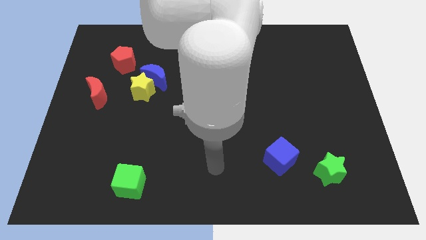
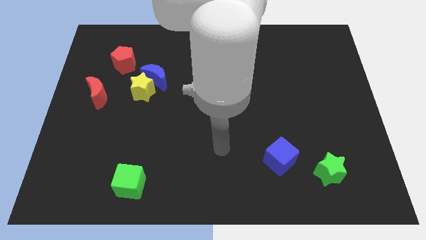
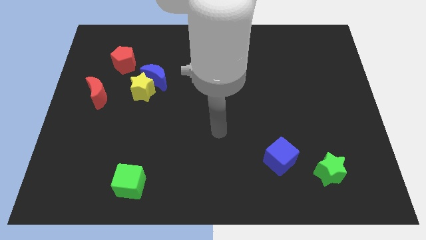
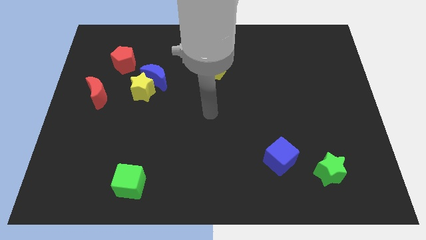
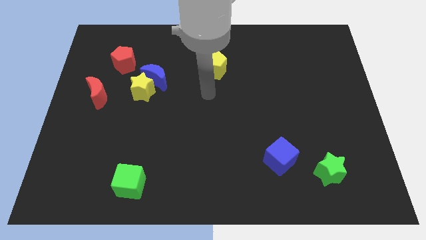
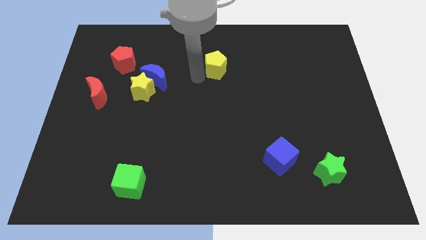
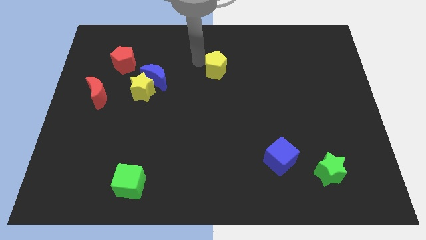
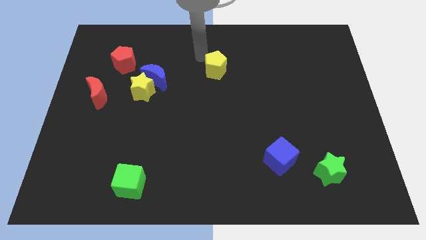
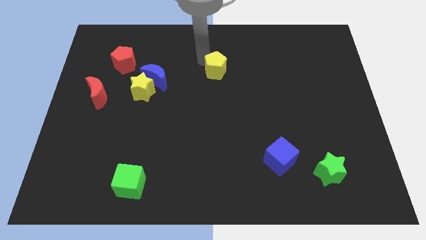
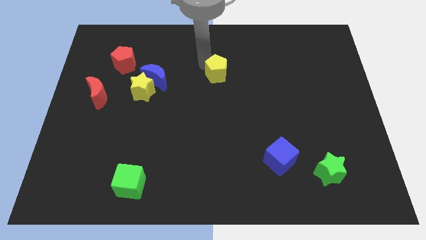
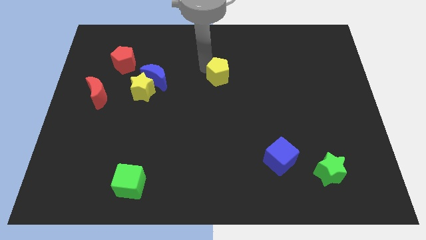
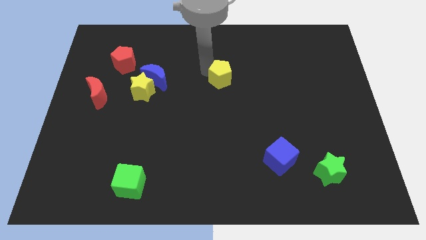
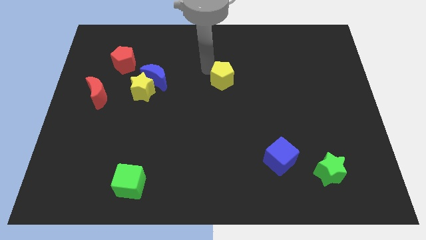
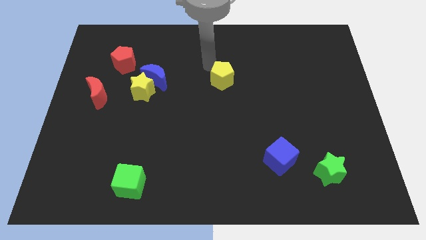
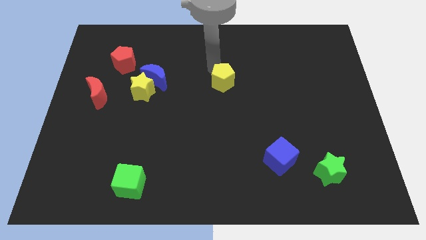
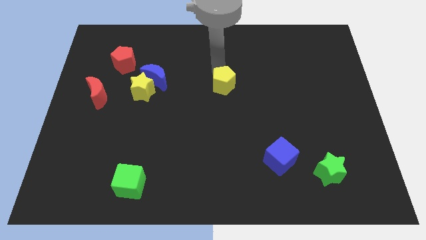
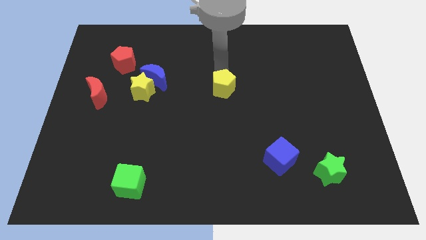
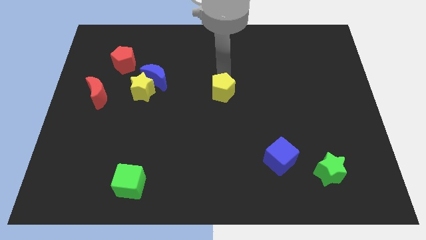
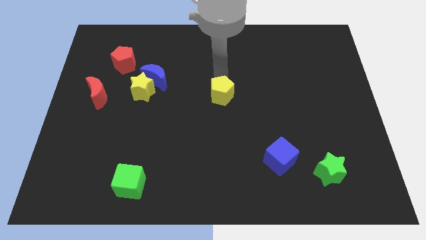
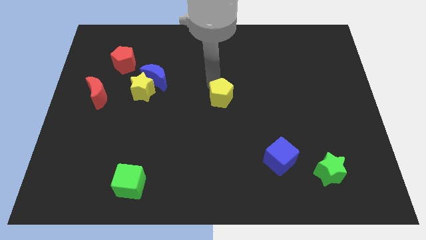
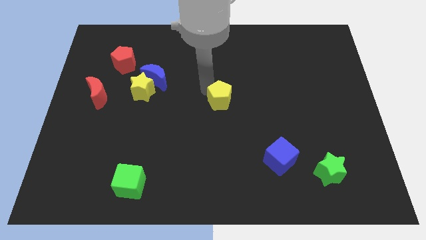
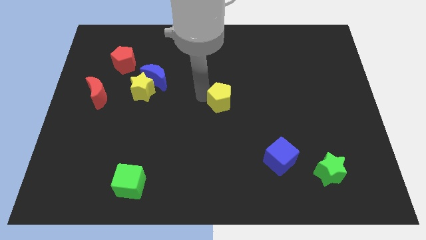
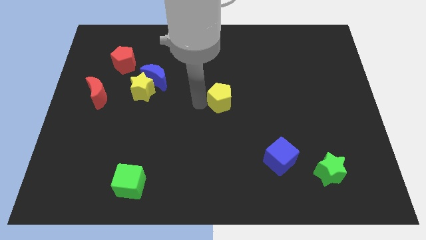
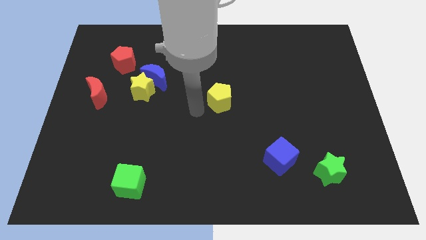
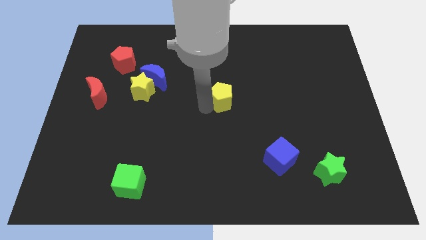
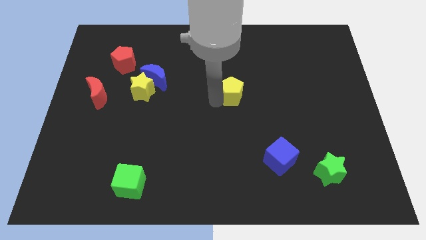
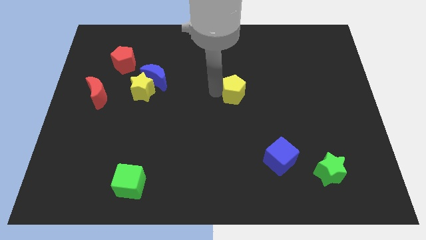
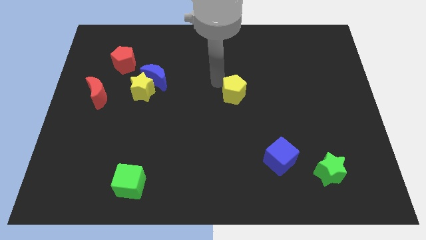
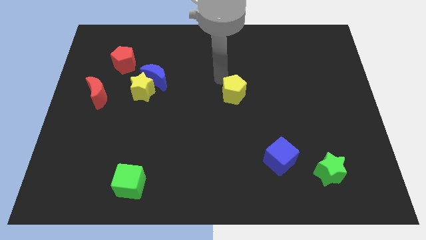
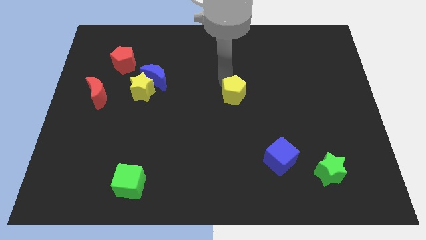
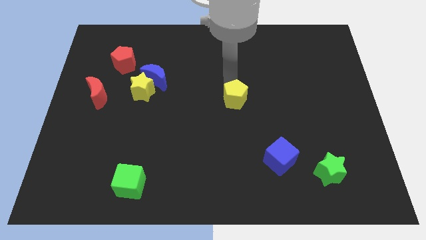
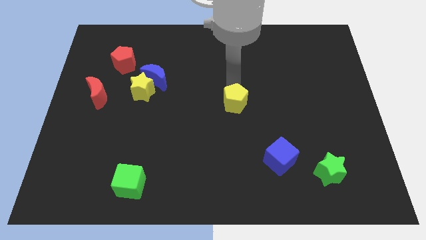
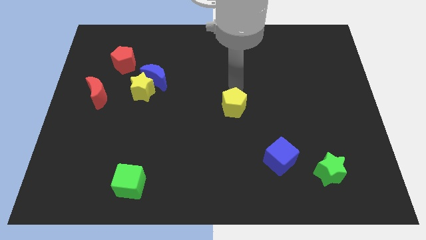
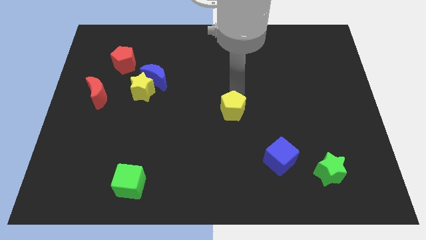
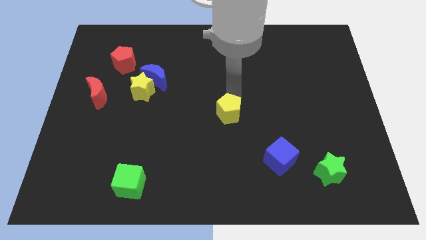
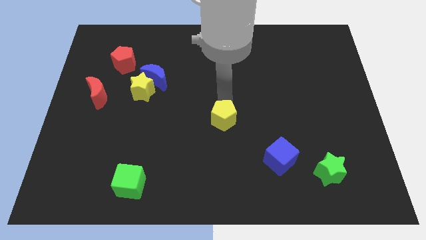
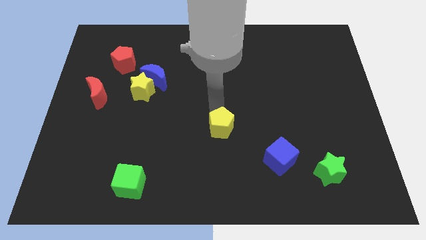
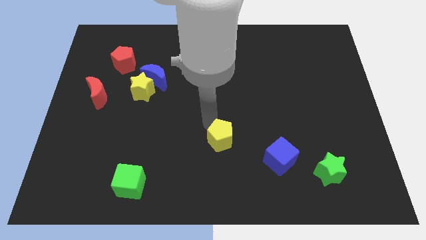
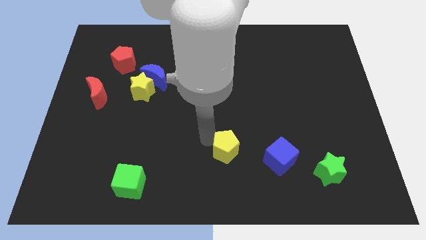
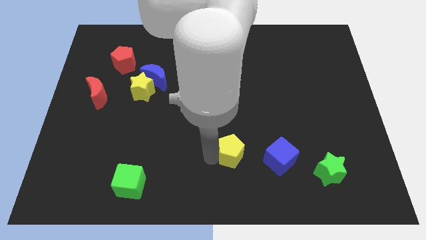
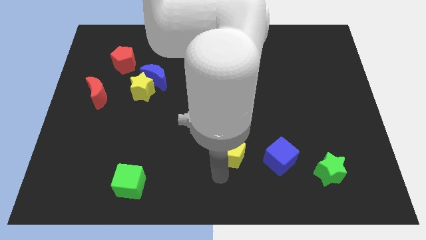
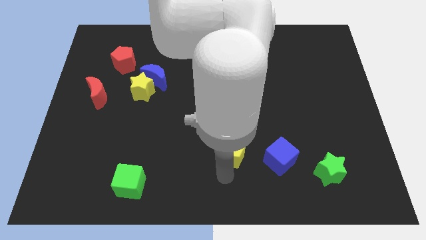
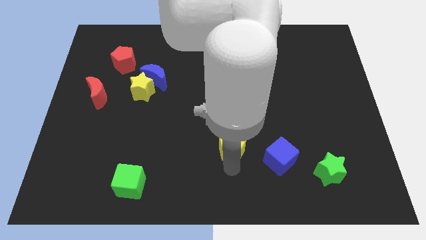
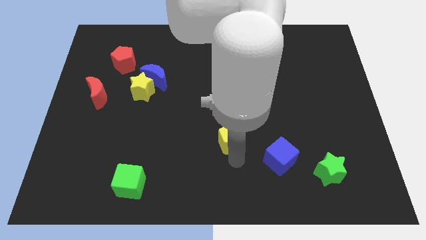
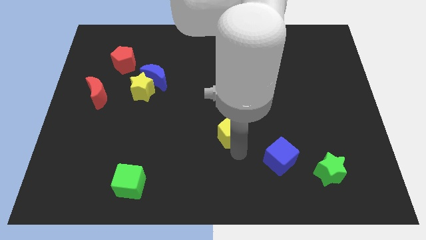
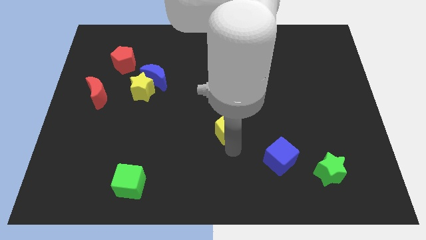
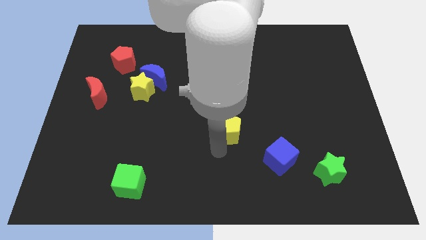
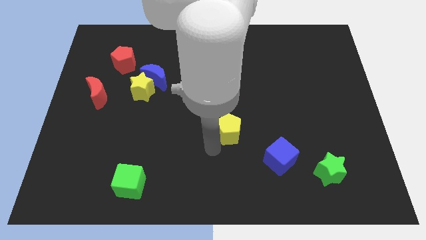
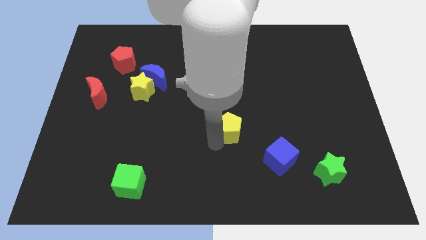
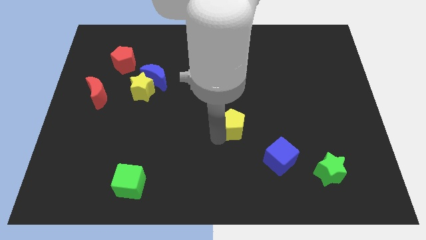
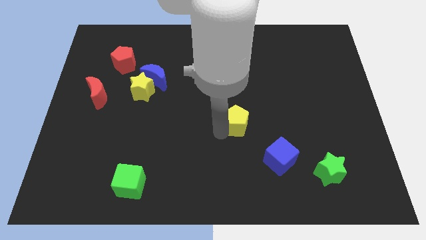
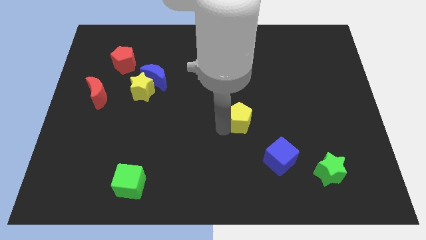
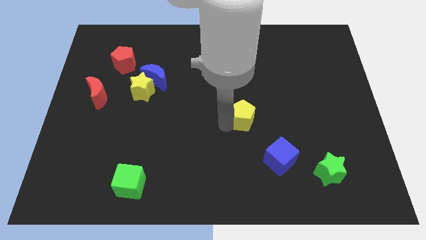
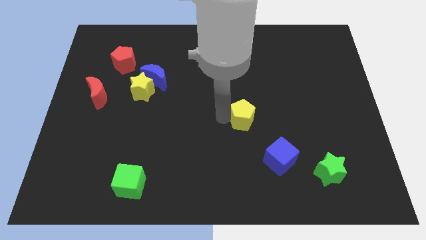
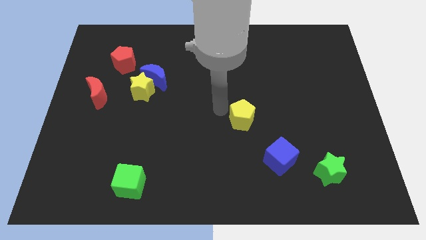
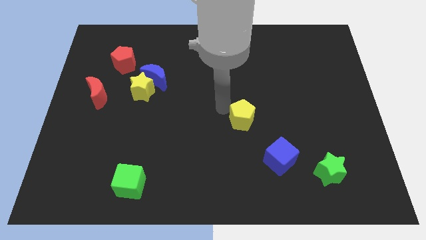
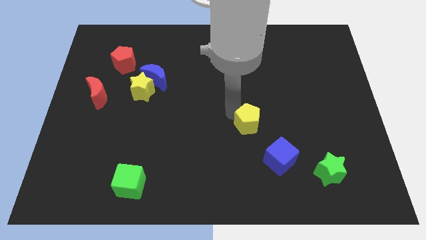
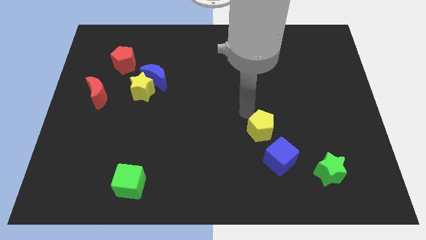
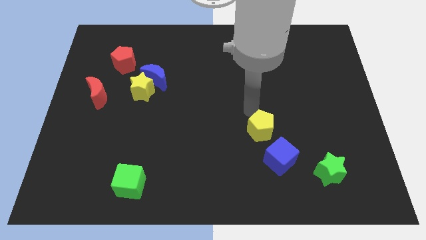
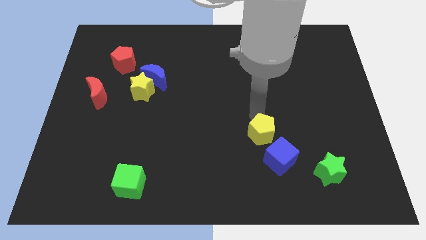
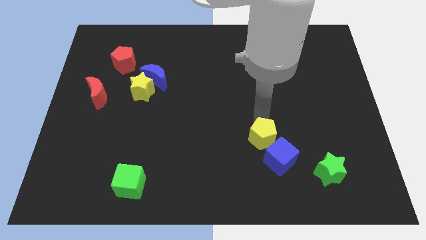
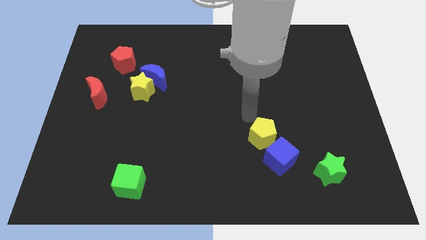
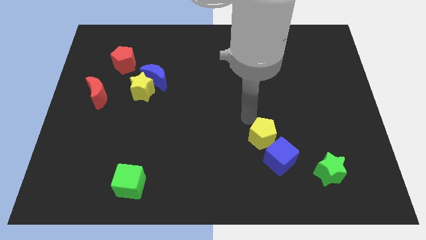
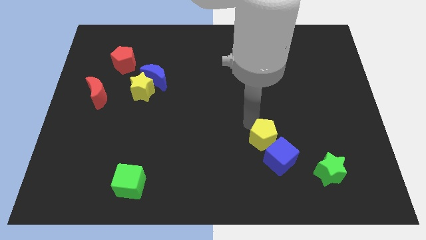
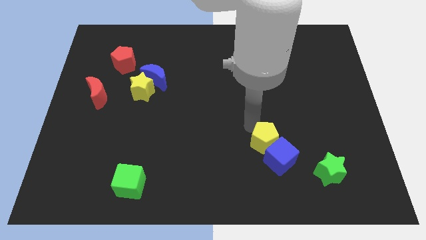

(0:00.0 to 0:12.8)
push the yellow pentagon to the blue cube
